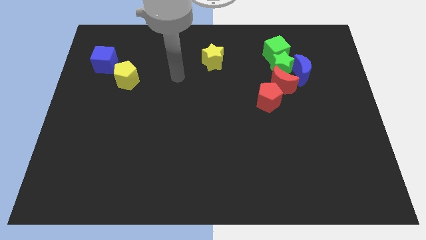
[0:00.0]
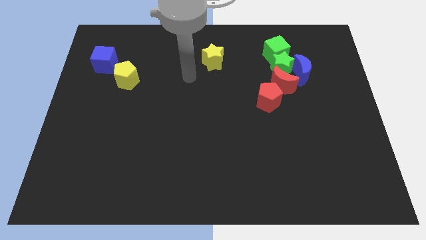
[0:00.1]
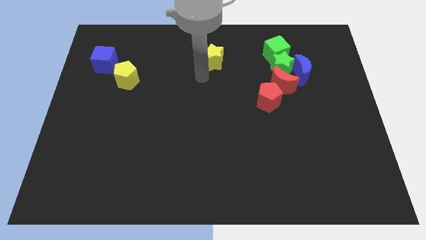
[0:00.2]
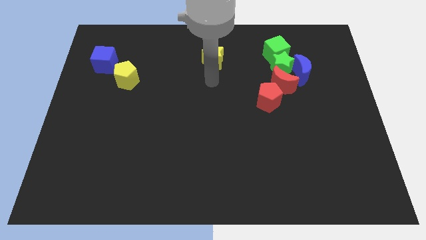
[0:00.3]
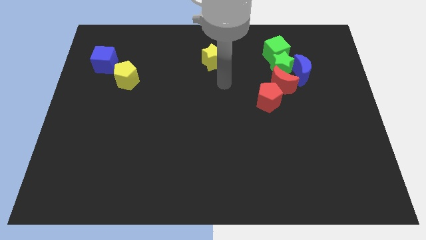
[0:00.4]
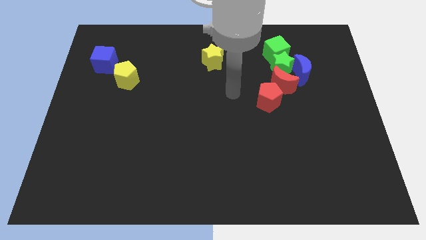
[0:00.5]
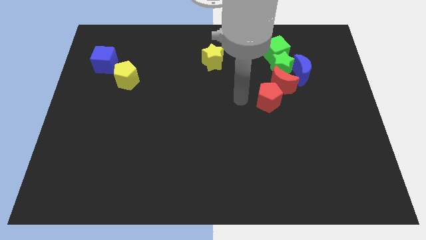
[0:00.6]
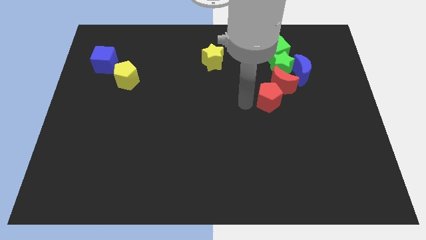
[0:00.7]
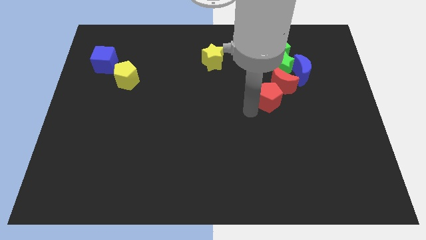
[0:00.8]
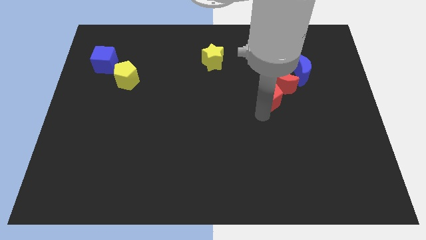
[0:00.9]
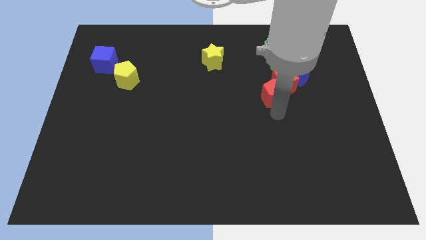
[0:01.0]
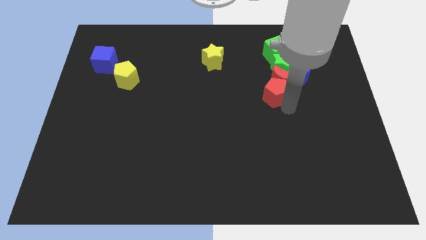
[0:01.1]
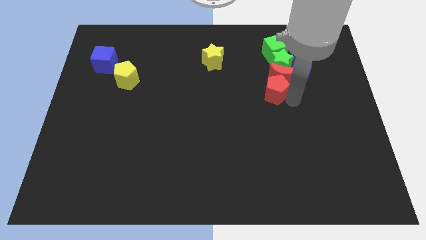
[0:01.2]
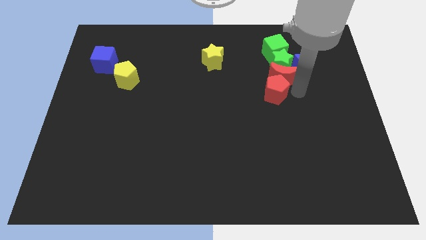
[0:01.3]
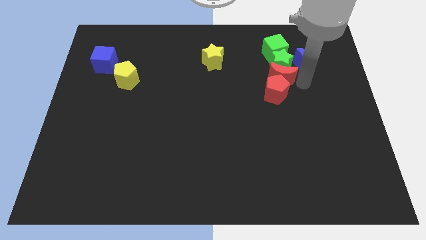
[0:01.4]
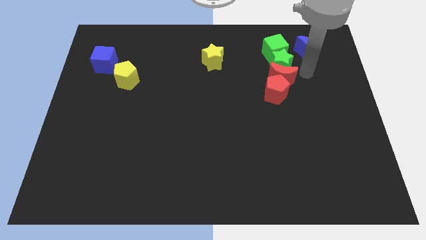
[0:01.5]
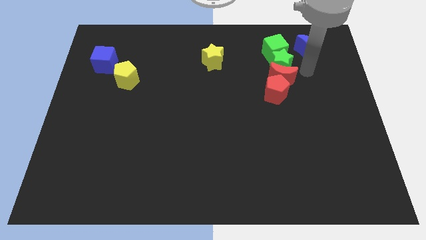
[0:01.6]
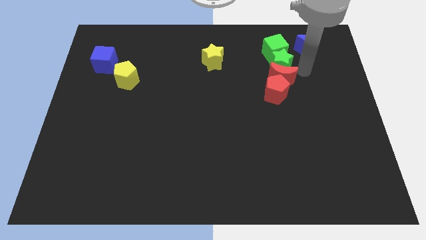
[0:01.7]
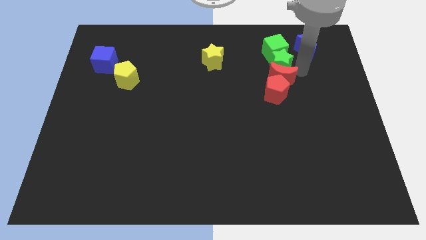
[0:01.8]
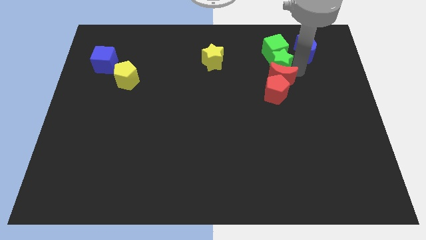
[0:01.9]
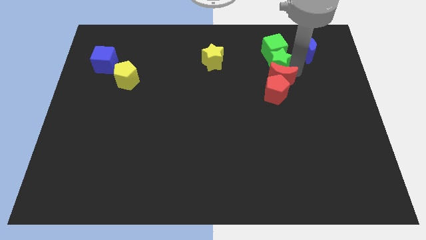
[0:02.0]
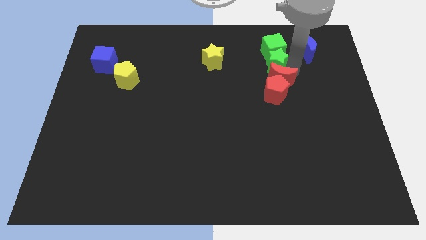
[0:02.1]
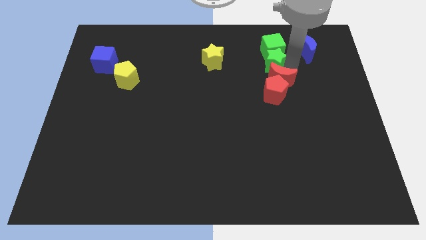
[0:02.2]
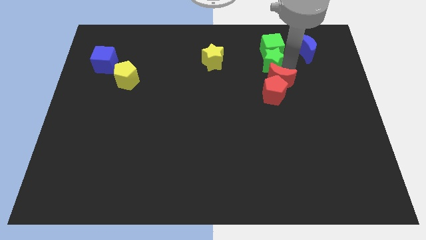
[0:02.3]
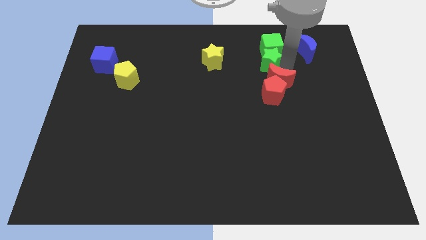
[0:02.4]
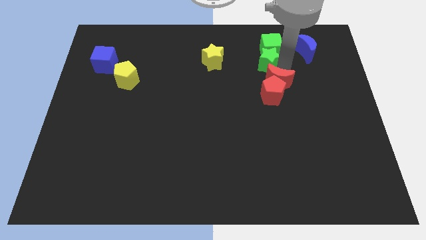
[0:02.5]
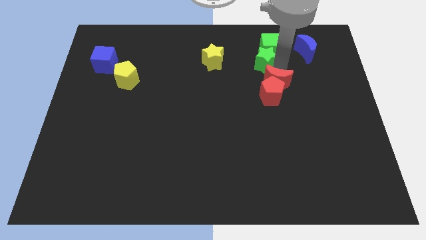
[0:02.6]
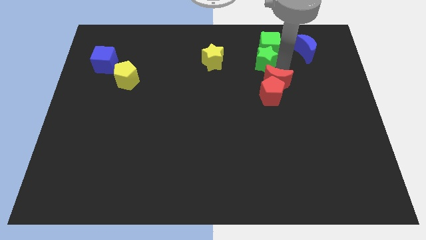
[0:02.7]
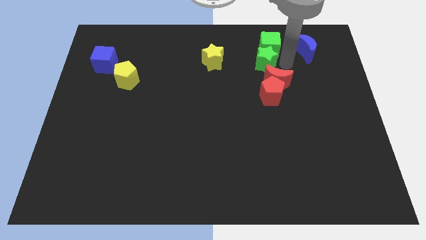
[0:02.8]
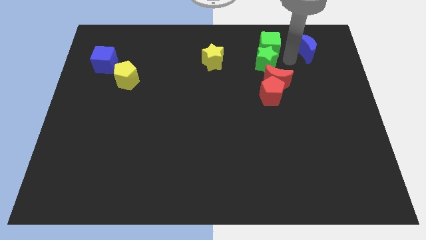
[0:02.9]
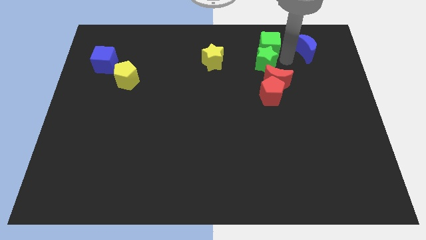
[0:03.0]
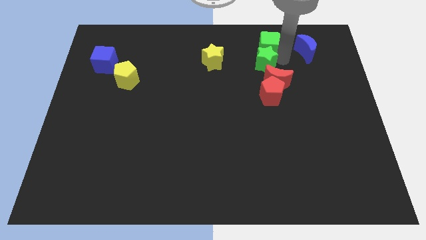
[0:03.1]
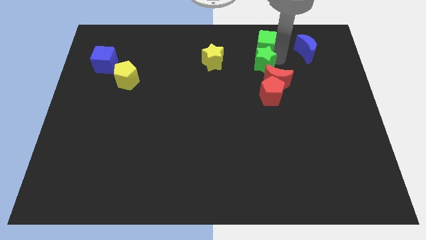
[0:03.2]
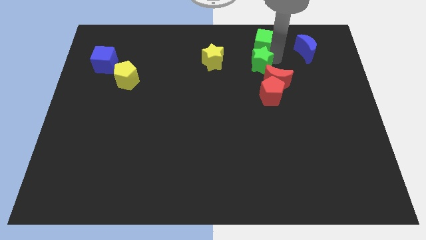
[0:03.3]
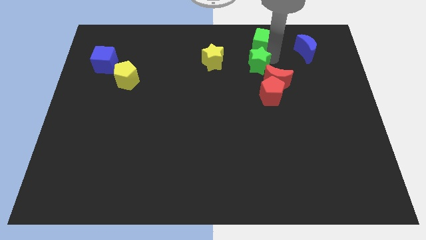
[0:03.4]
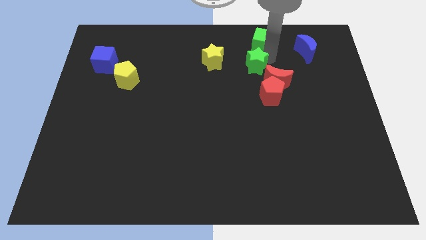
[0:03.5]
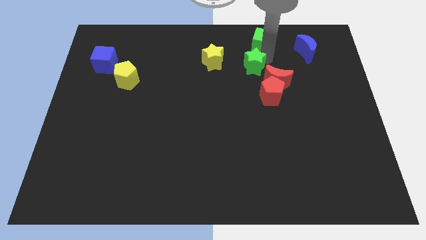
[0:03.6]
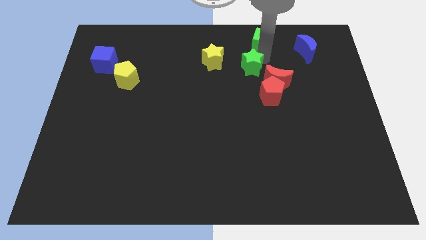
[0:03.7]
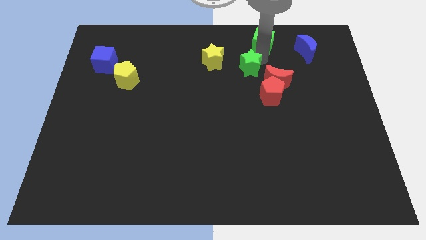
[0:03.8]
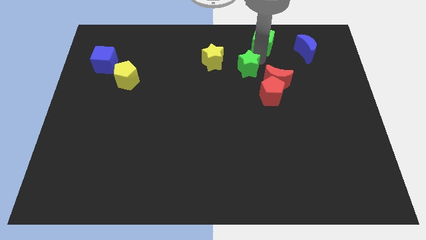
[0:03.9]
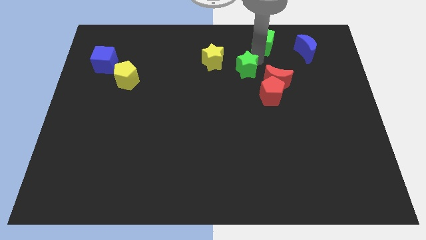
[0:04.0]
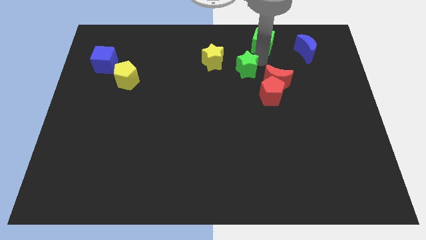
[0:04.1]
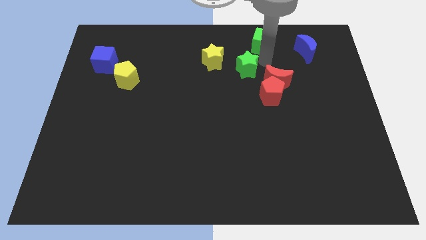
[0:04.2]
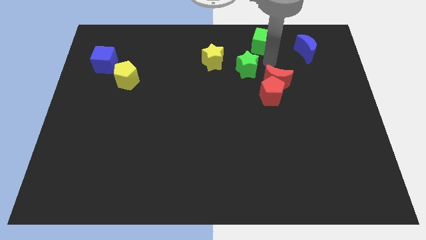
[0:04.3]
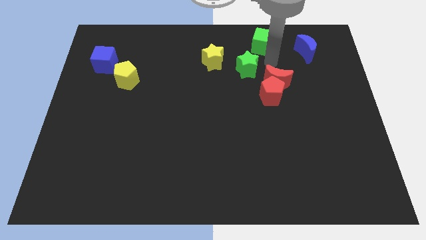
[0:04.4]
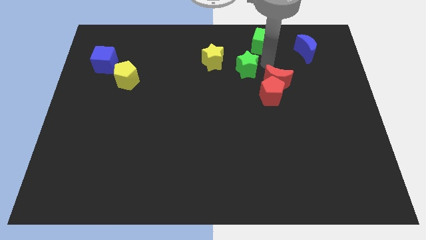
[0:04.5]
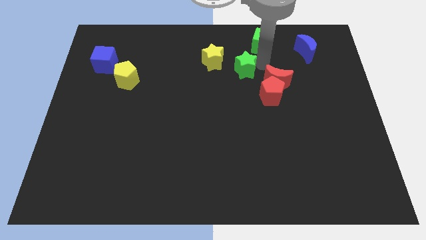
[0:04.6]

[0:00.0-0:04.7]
separate the green star from the blue moon, red moon, and green cube

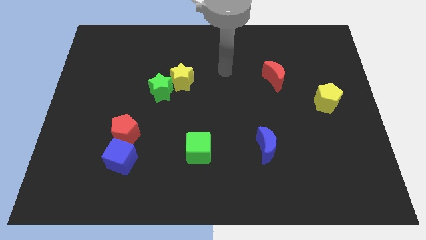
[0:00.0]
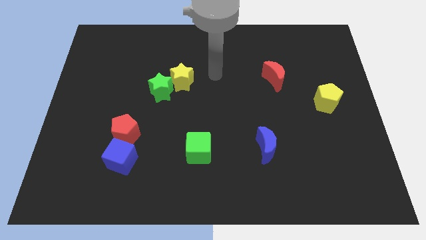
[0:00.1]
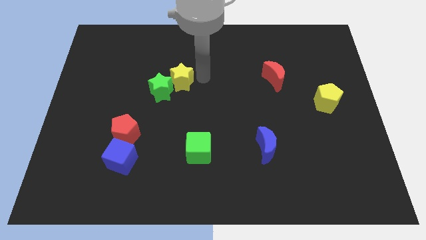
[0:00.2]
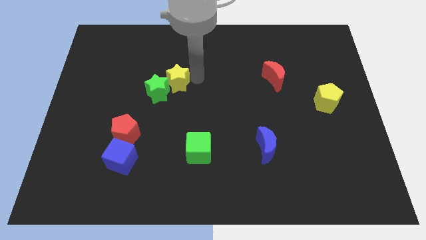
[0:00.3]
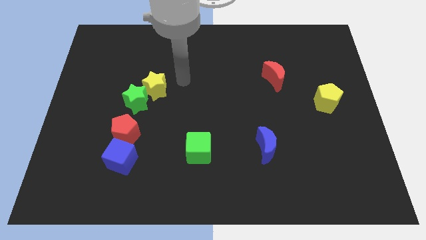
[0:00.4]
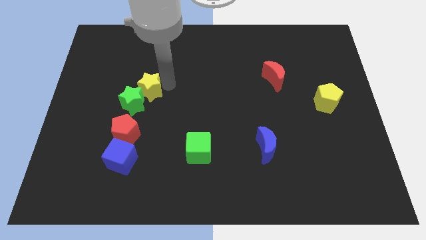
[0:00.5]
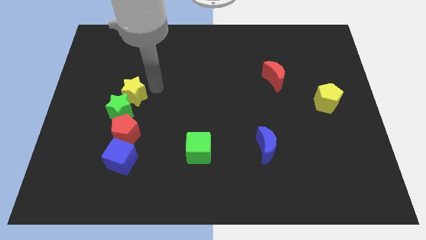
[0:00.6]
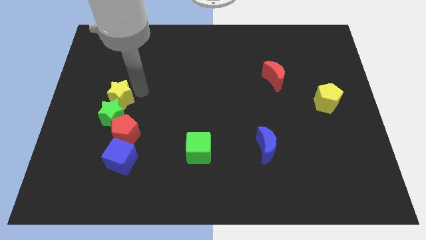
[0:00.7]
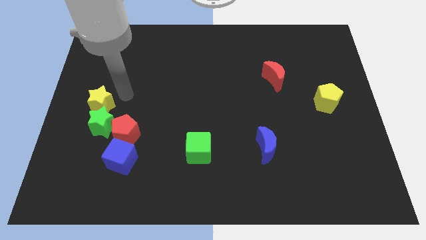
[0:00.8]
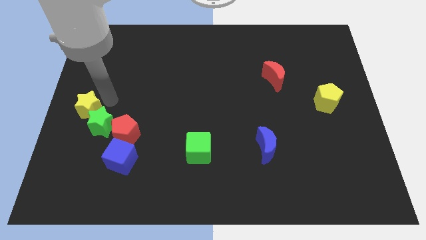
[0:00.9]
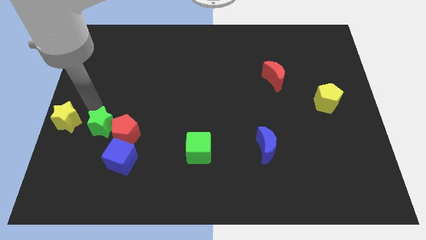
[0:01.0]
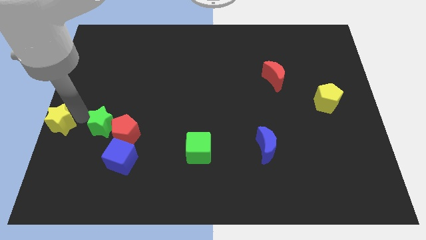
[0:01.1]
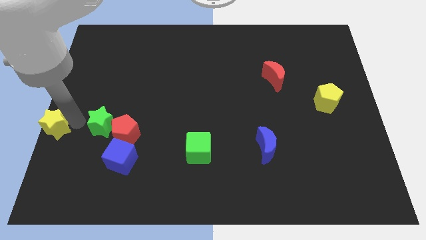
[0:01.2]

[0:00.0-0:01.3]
move the green star away from the yellow star

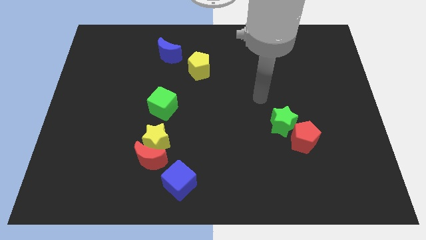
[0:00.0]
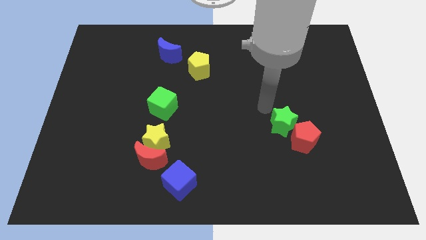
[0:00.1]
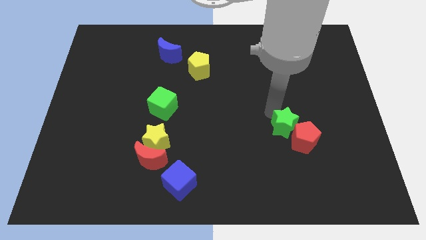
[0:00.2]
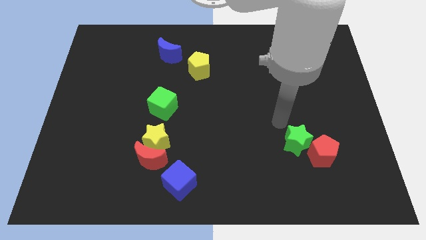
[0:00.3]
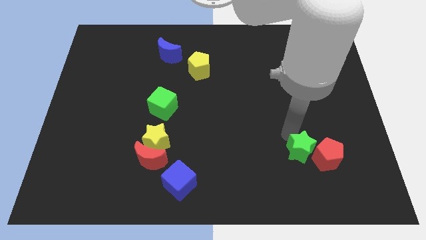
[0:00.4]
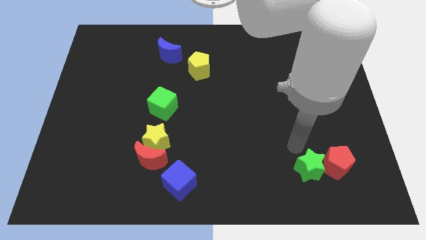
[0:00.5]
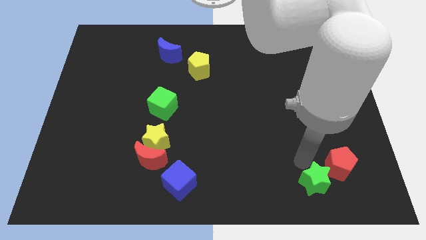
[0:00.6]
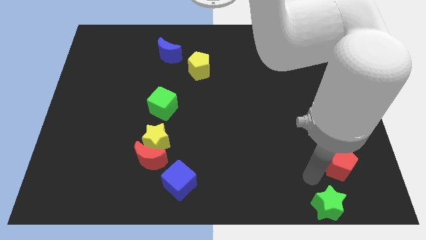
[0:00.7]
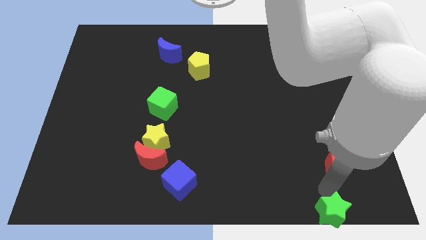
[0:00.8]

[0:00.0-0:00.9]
separate the red pentagon from the green star

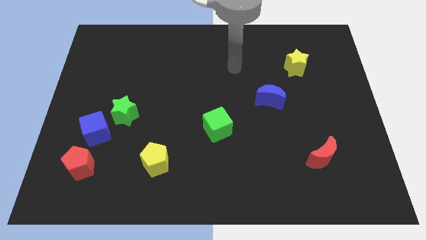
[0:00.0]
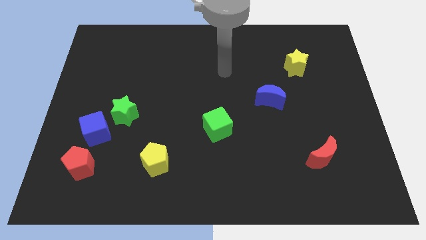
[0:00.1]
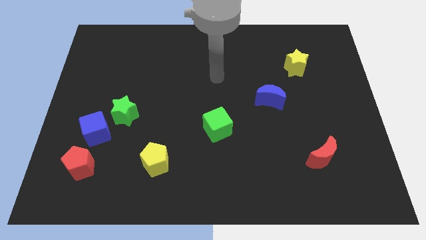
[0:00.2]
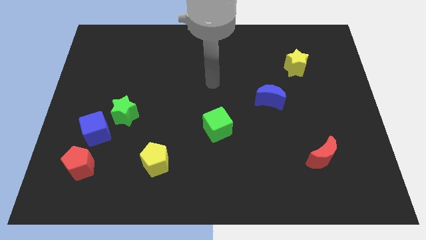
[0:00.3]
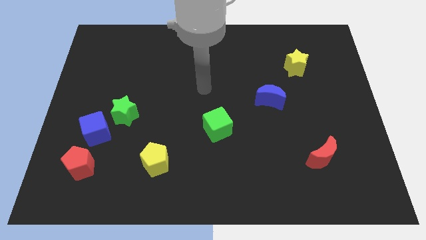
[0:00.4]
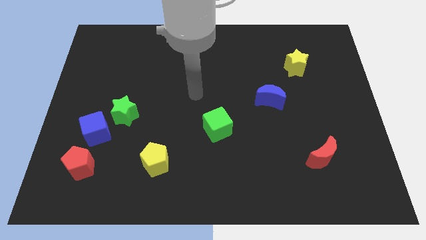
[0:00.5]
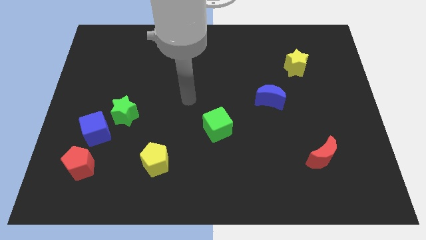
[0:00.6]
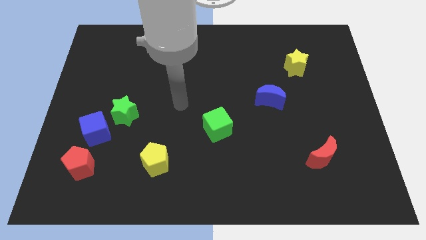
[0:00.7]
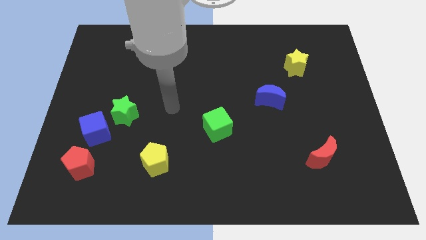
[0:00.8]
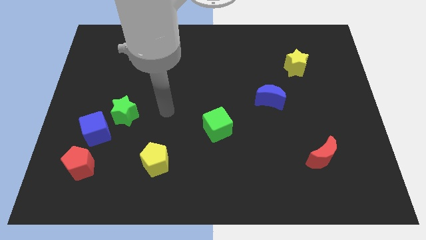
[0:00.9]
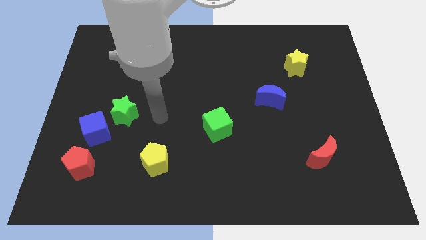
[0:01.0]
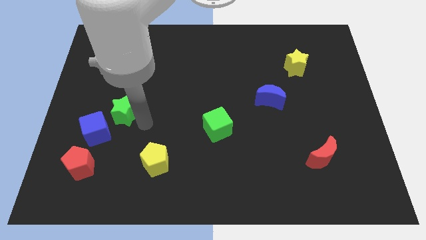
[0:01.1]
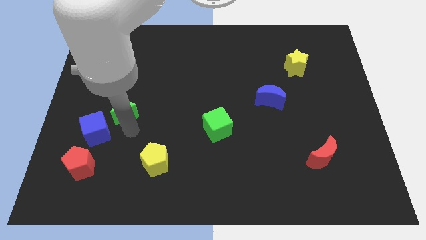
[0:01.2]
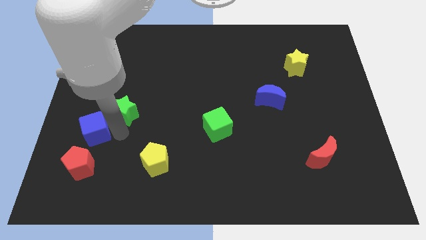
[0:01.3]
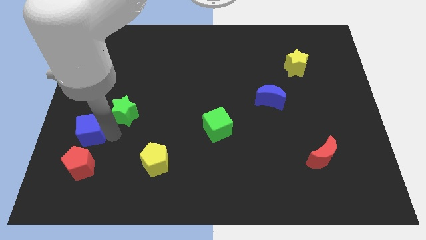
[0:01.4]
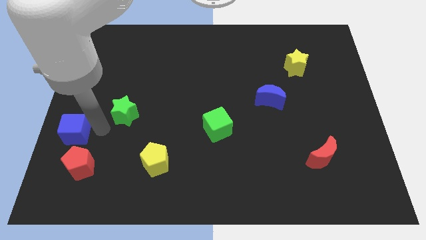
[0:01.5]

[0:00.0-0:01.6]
separate the green star from the blue cube

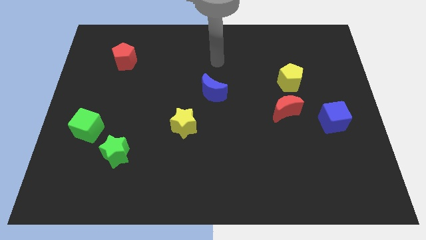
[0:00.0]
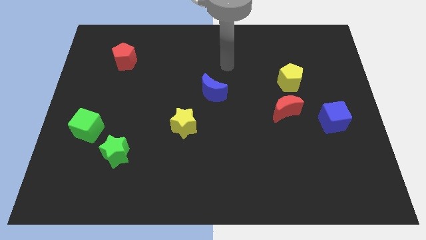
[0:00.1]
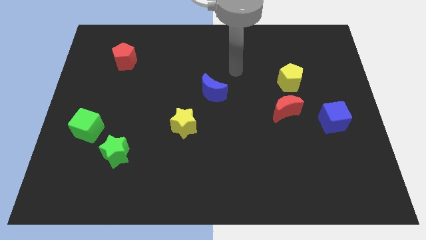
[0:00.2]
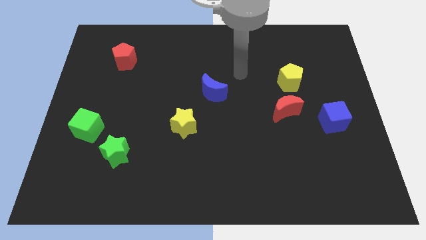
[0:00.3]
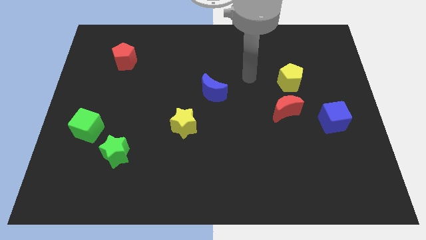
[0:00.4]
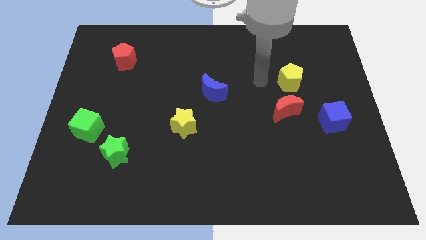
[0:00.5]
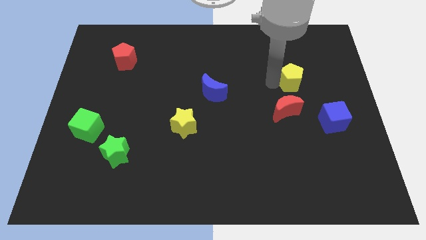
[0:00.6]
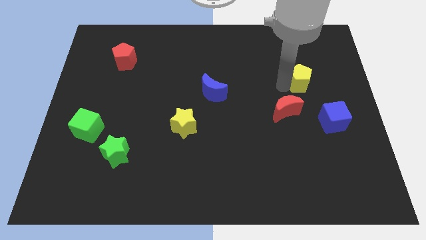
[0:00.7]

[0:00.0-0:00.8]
separate the red moon from the yellow pentagon
